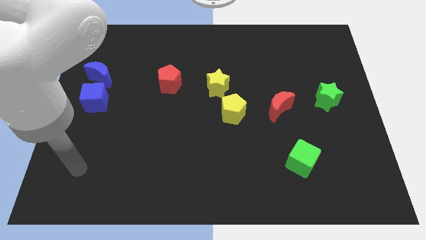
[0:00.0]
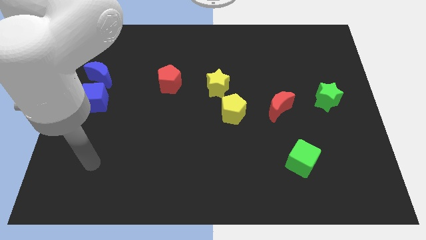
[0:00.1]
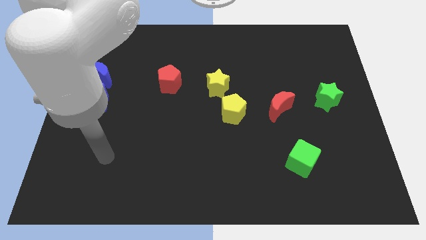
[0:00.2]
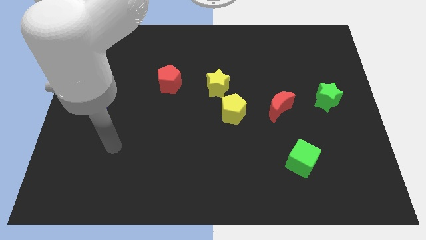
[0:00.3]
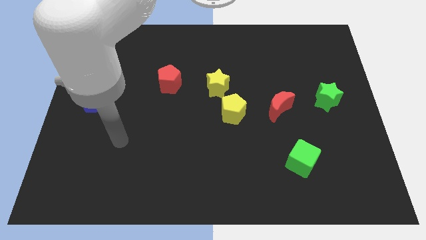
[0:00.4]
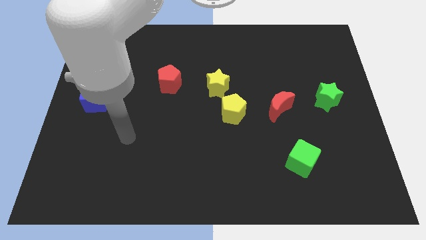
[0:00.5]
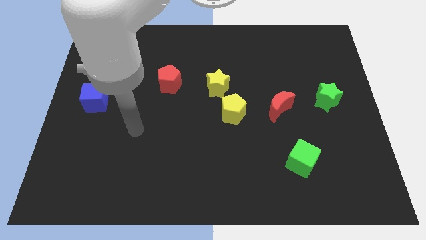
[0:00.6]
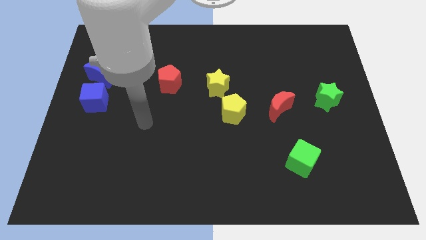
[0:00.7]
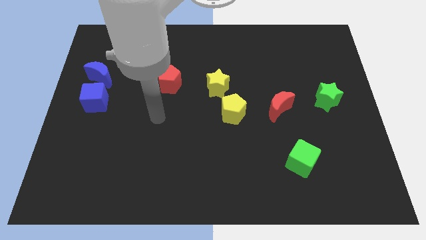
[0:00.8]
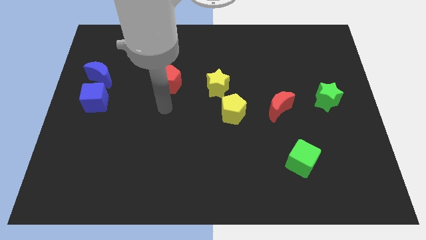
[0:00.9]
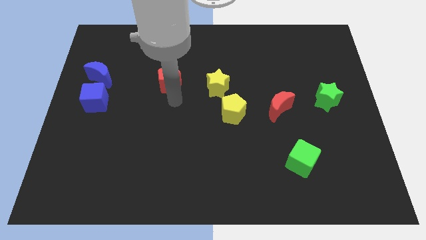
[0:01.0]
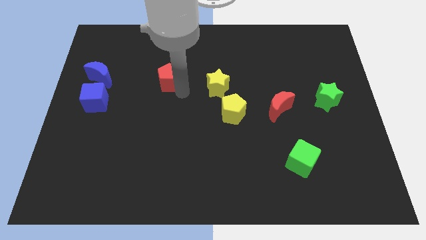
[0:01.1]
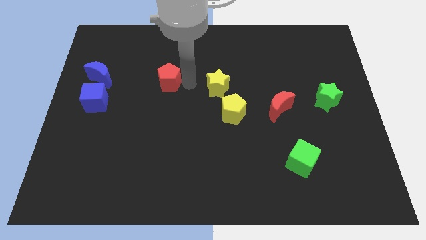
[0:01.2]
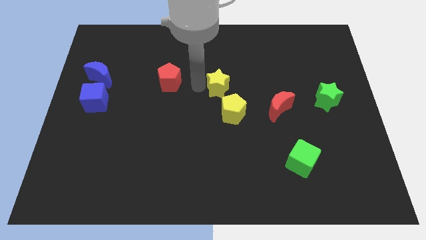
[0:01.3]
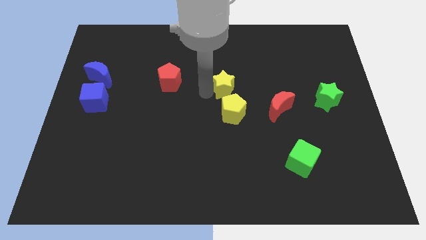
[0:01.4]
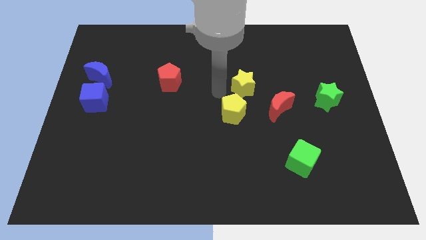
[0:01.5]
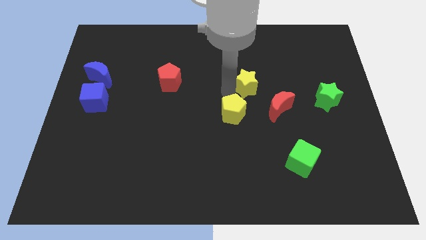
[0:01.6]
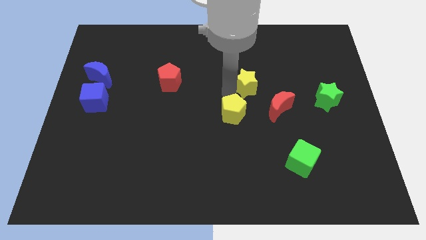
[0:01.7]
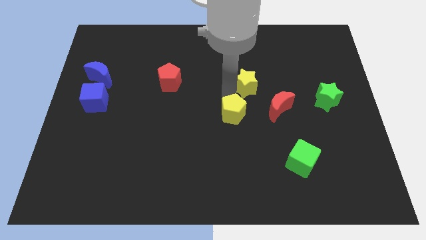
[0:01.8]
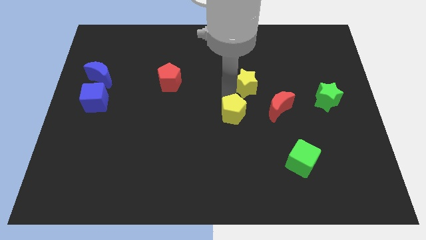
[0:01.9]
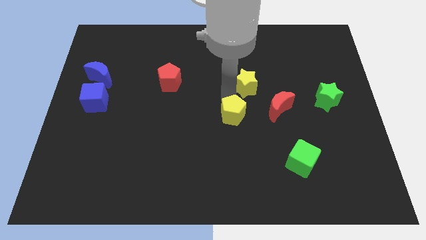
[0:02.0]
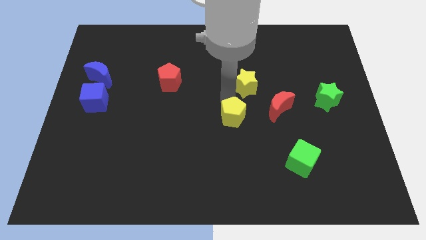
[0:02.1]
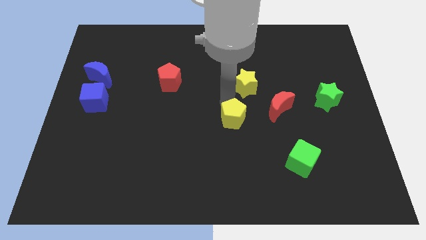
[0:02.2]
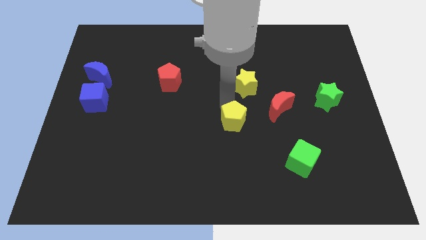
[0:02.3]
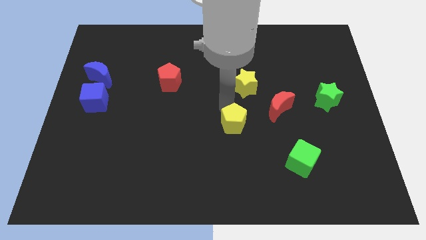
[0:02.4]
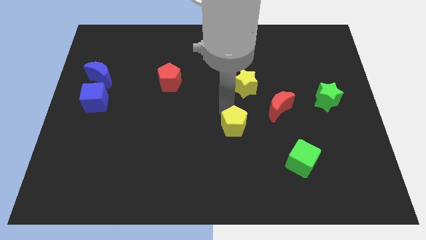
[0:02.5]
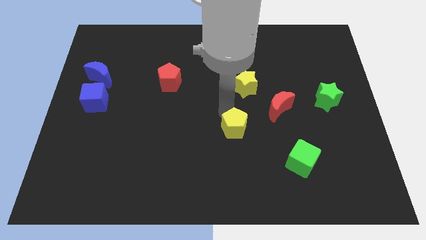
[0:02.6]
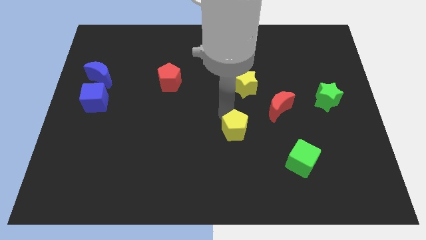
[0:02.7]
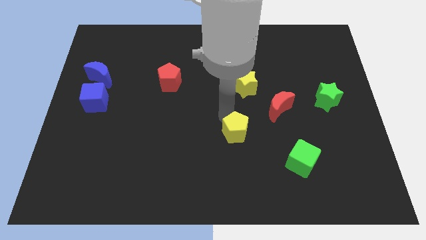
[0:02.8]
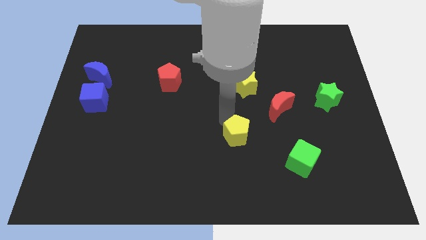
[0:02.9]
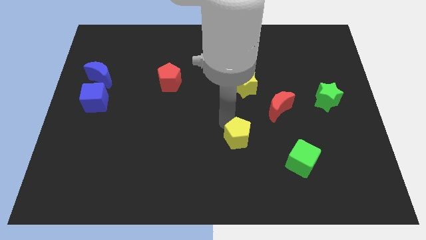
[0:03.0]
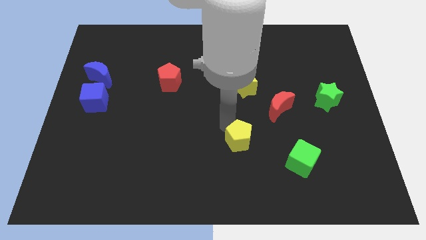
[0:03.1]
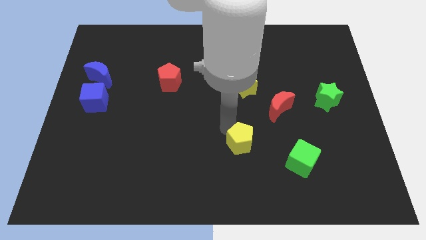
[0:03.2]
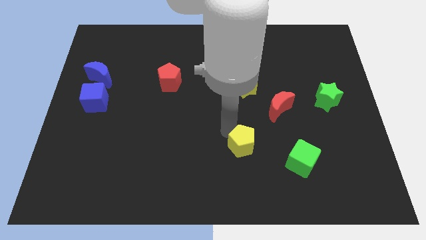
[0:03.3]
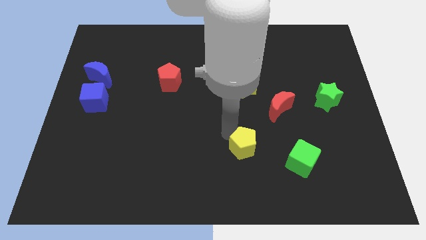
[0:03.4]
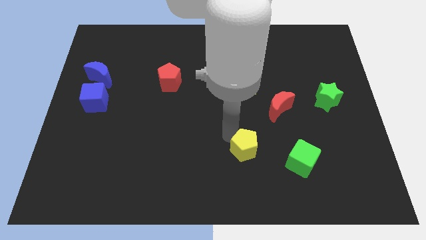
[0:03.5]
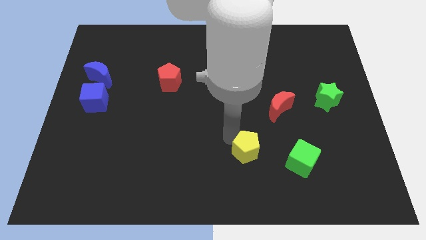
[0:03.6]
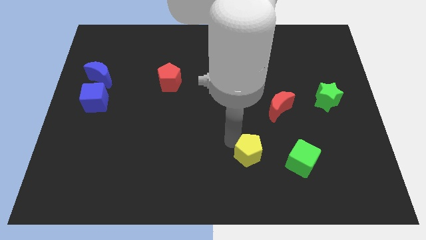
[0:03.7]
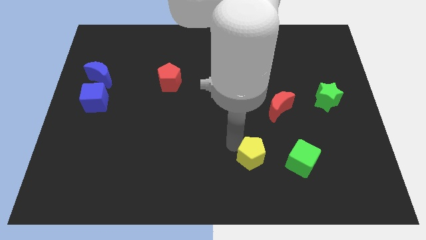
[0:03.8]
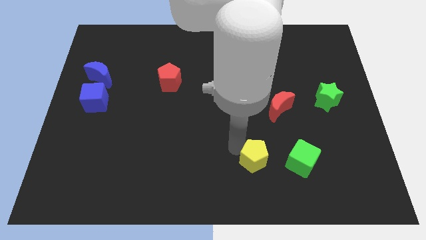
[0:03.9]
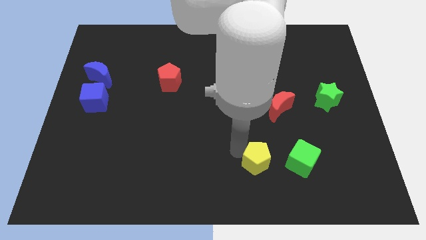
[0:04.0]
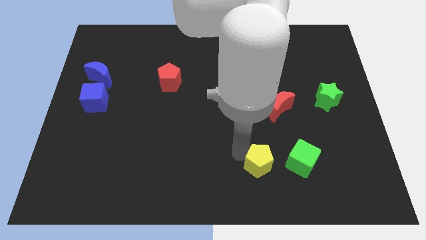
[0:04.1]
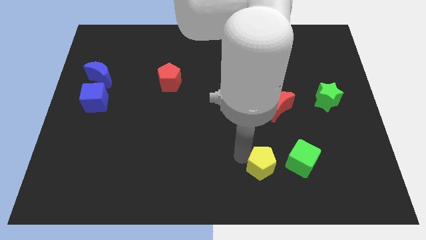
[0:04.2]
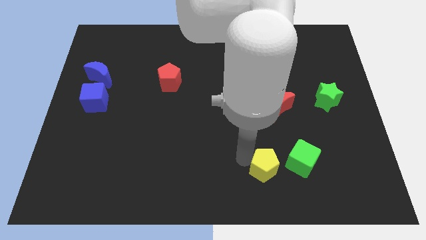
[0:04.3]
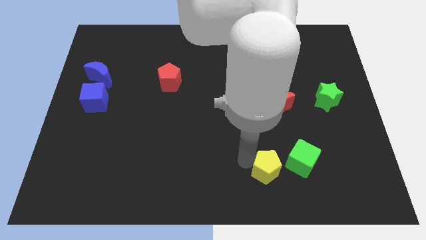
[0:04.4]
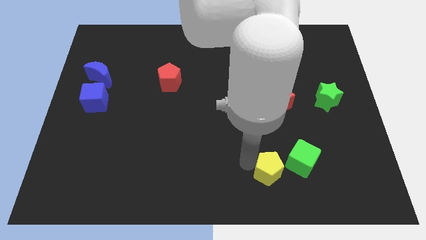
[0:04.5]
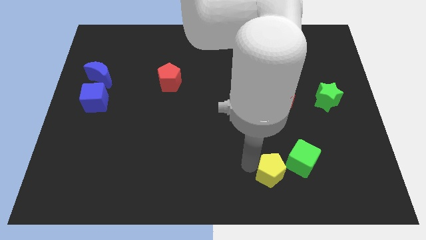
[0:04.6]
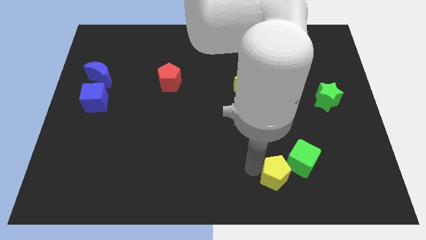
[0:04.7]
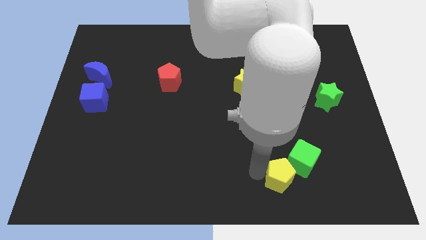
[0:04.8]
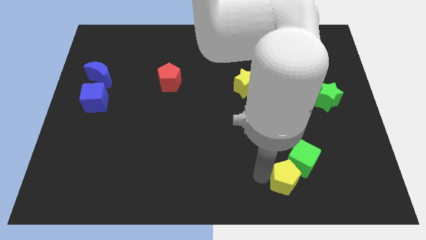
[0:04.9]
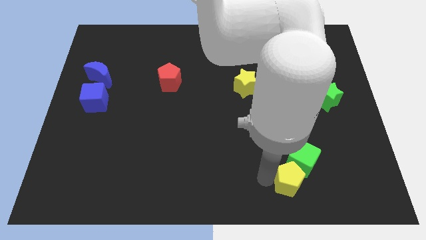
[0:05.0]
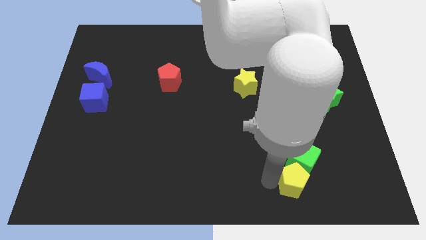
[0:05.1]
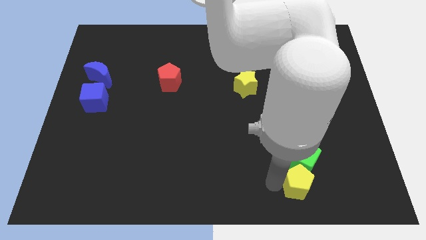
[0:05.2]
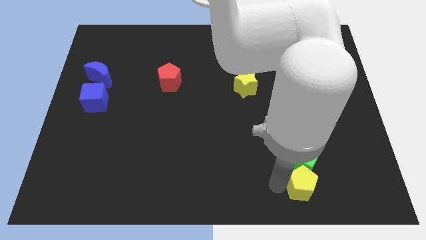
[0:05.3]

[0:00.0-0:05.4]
move the yellow pentagon to the bottom right of the green cube

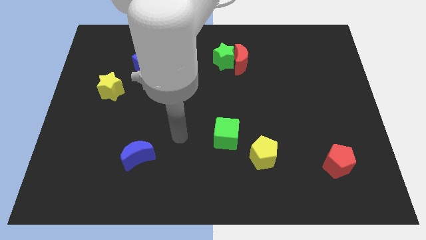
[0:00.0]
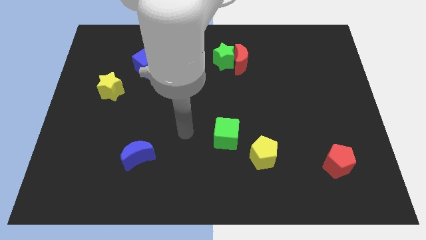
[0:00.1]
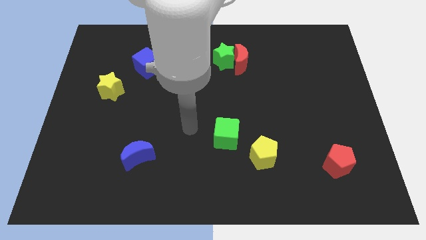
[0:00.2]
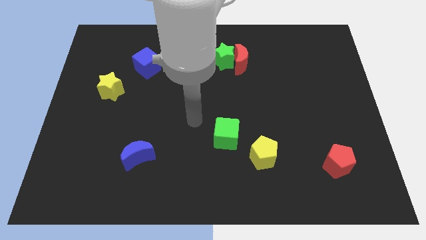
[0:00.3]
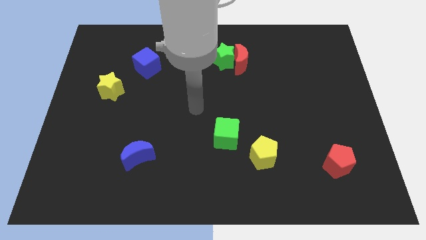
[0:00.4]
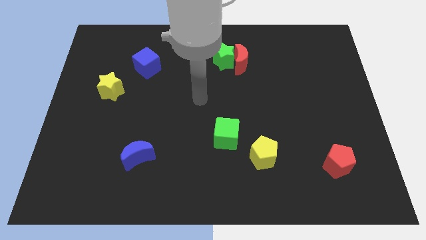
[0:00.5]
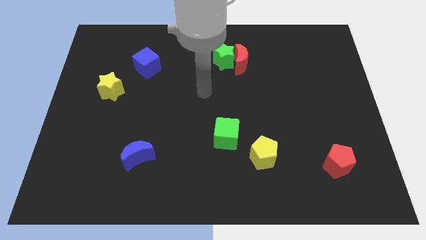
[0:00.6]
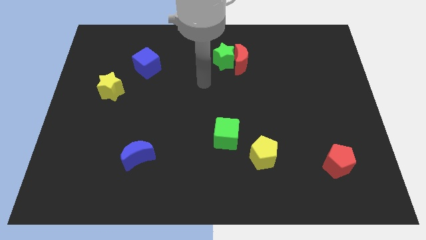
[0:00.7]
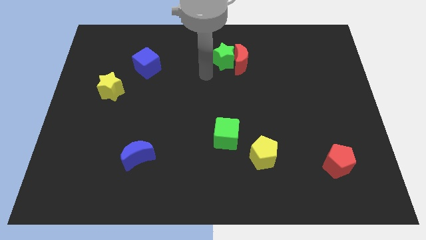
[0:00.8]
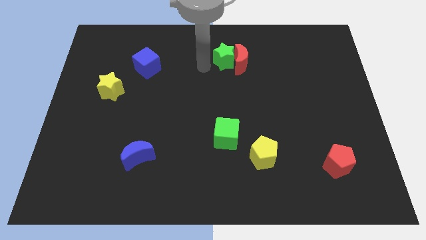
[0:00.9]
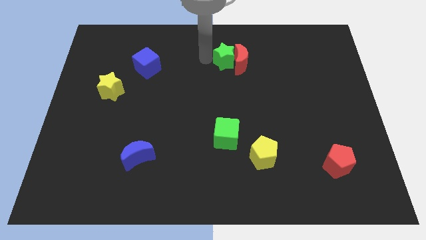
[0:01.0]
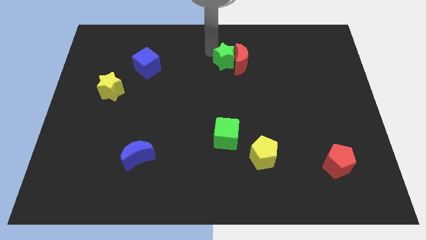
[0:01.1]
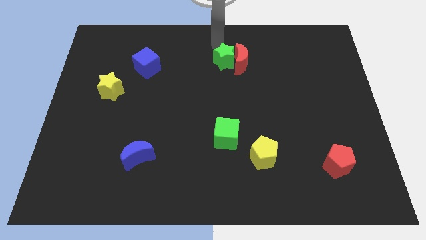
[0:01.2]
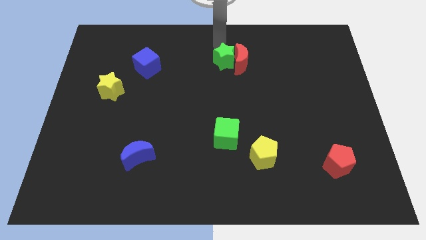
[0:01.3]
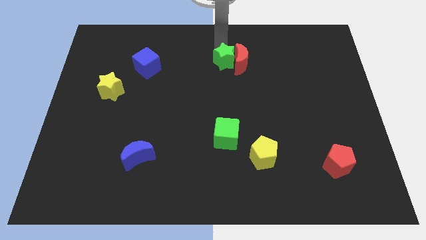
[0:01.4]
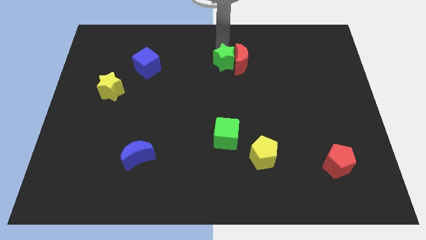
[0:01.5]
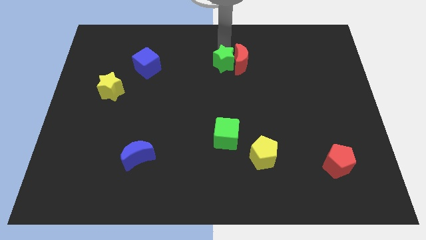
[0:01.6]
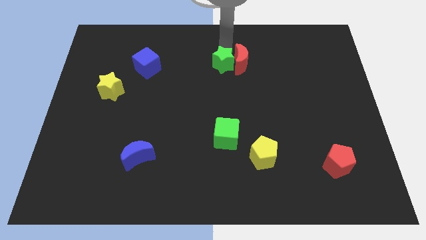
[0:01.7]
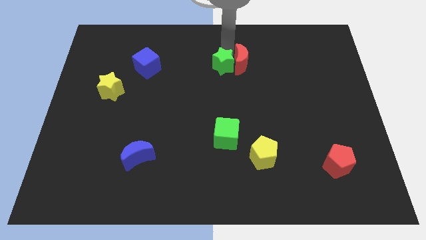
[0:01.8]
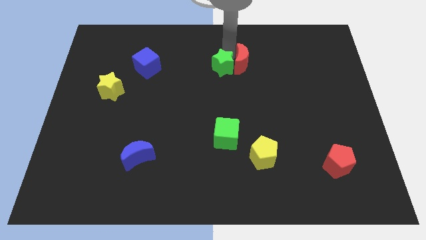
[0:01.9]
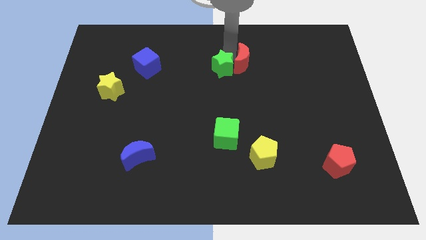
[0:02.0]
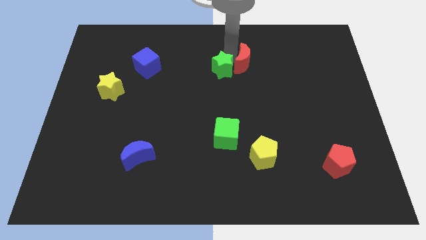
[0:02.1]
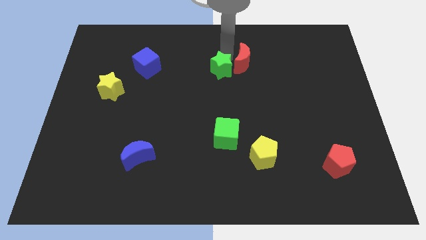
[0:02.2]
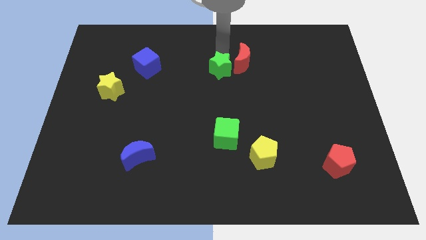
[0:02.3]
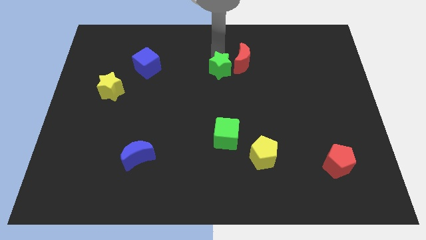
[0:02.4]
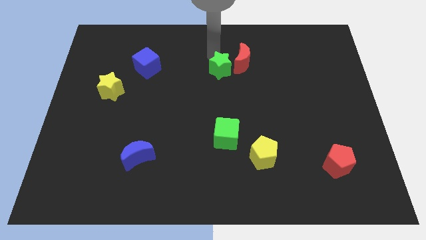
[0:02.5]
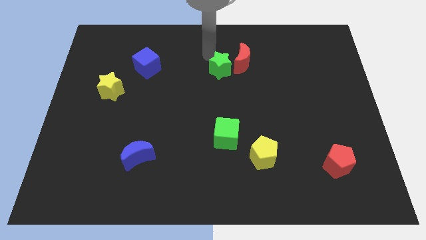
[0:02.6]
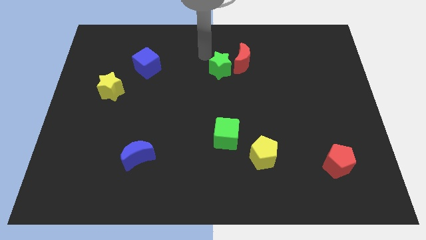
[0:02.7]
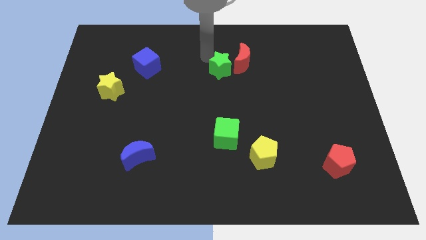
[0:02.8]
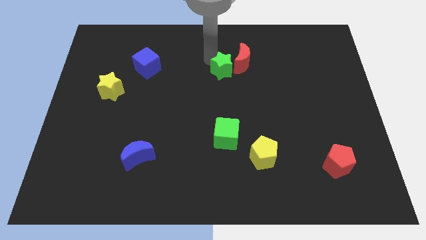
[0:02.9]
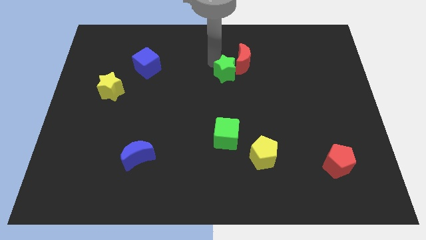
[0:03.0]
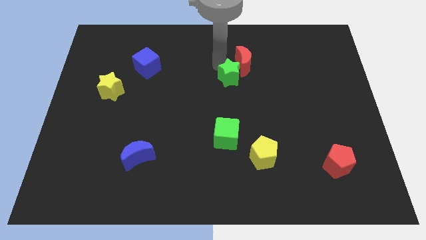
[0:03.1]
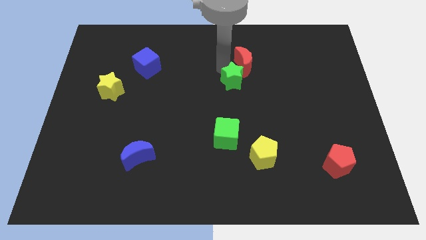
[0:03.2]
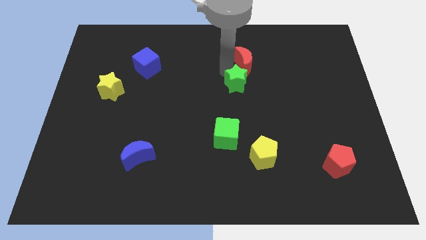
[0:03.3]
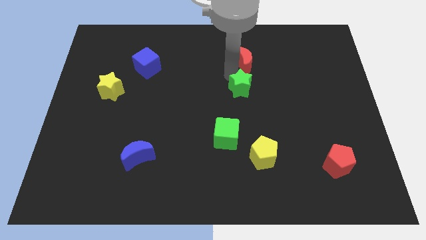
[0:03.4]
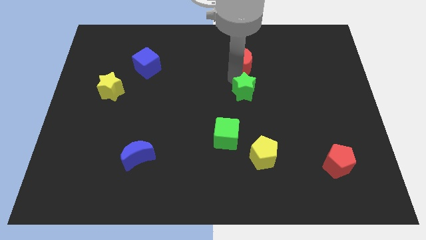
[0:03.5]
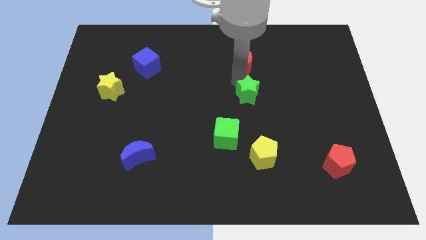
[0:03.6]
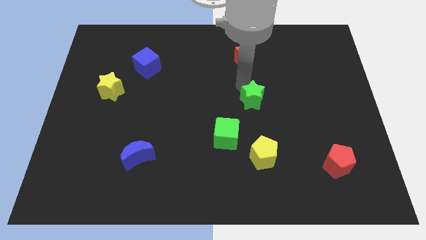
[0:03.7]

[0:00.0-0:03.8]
put the green star to the top of the yellow pentagon
